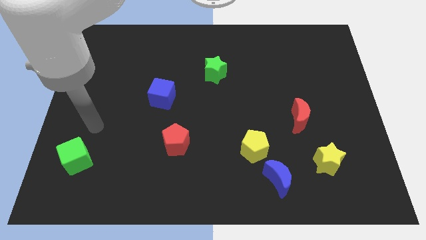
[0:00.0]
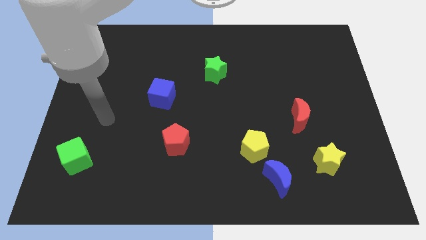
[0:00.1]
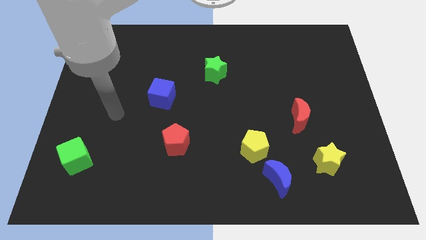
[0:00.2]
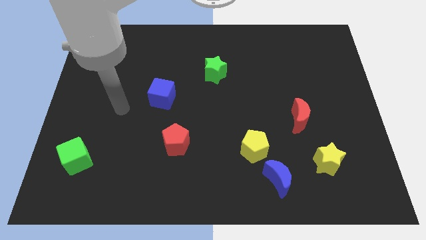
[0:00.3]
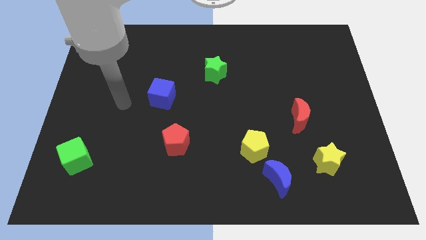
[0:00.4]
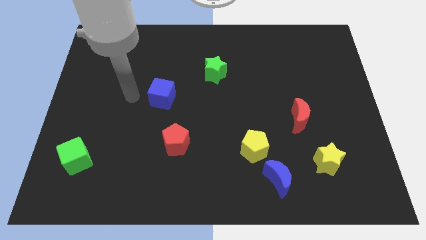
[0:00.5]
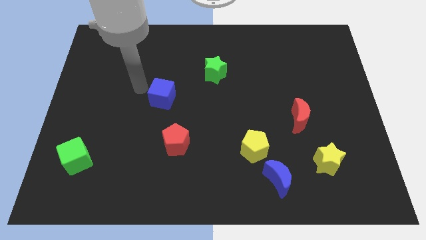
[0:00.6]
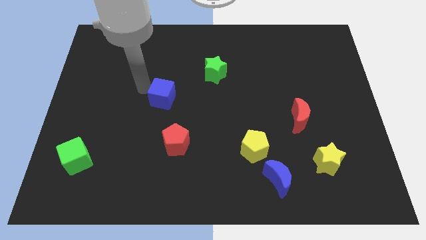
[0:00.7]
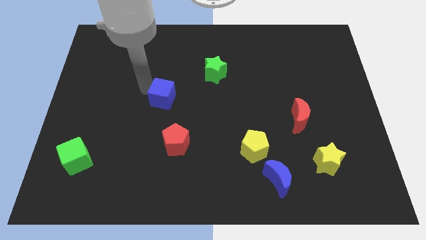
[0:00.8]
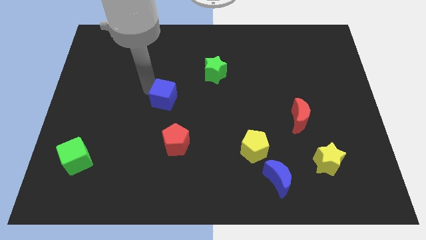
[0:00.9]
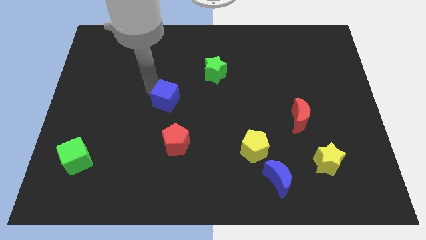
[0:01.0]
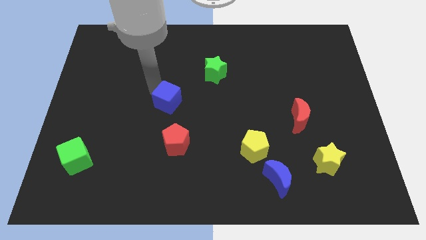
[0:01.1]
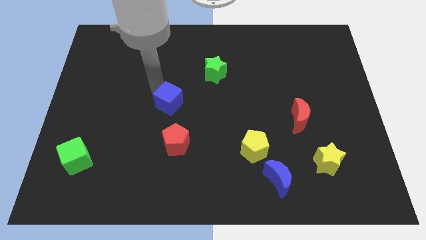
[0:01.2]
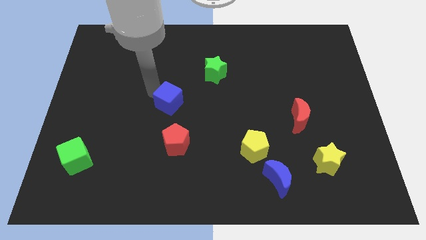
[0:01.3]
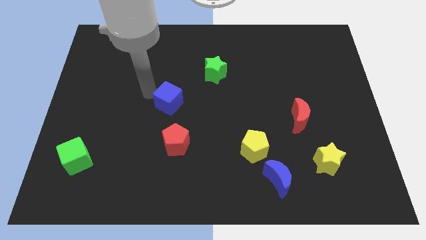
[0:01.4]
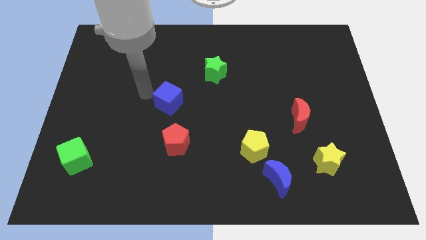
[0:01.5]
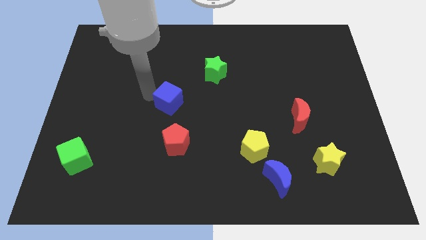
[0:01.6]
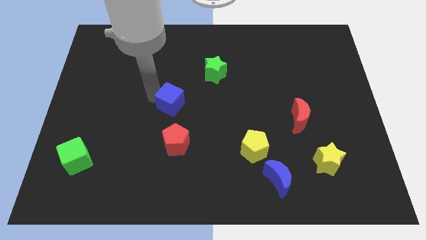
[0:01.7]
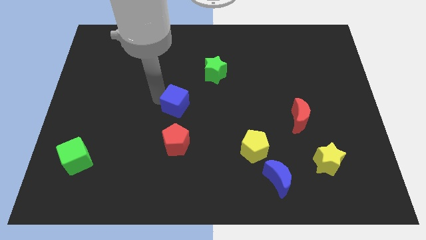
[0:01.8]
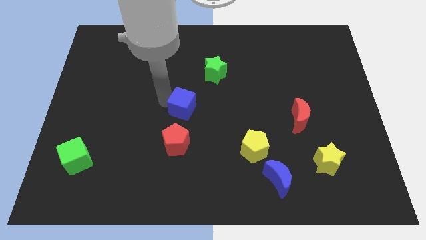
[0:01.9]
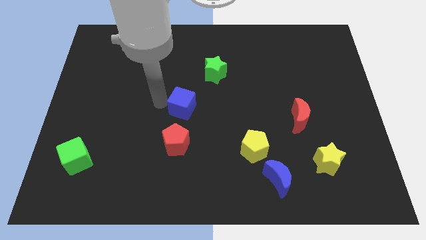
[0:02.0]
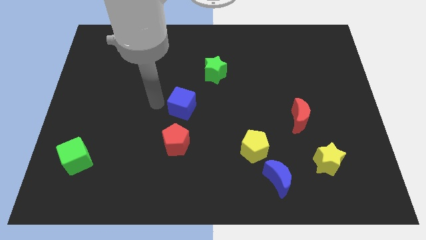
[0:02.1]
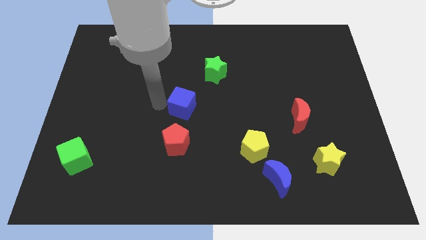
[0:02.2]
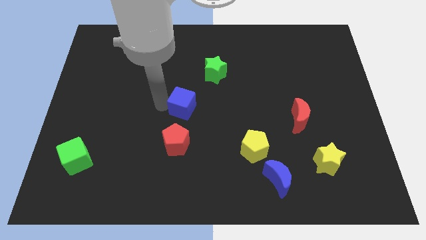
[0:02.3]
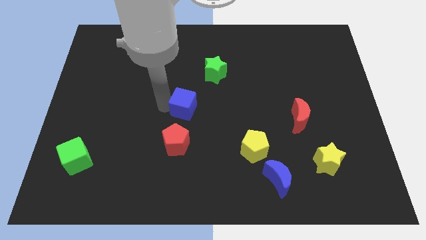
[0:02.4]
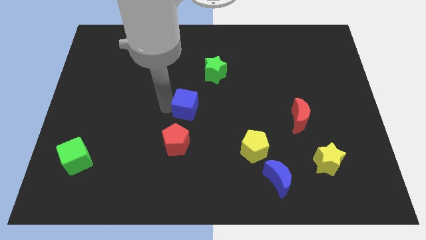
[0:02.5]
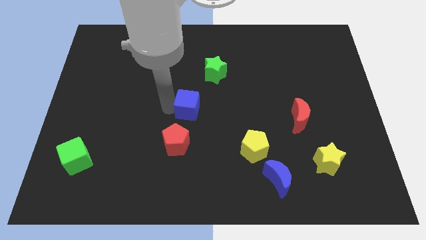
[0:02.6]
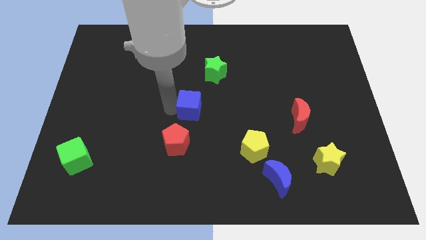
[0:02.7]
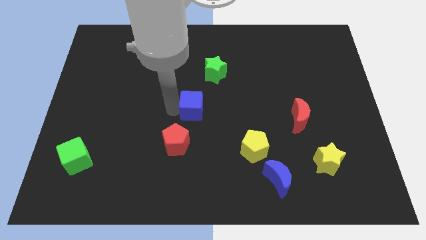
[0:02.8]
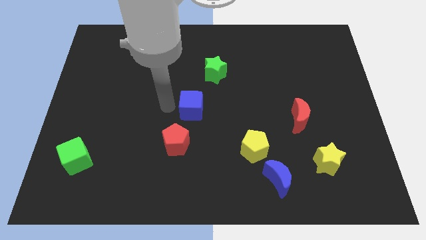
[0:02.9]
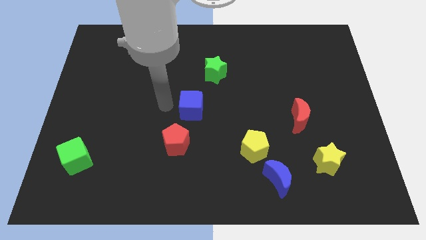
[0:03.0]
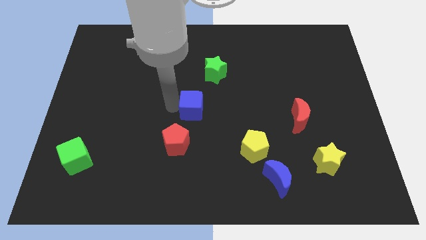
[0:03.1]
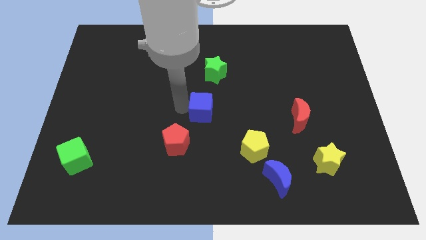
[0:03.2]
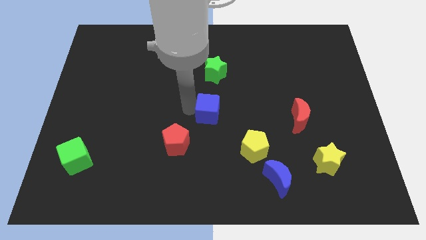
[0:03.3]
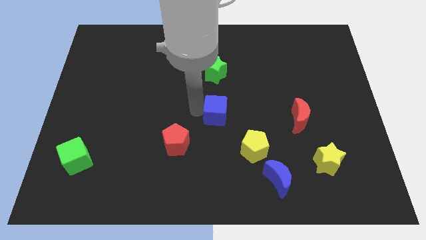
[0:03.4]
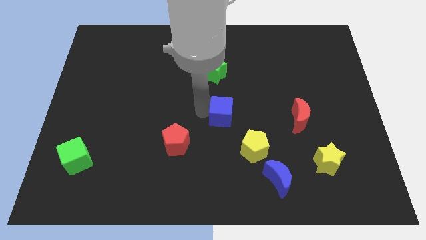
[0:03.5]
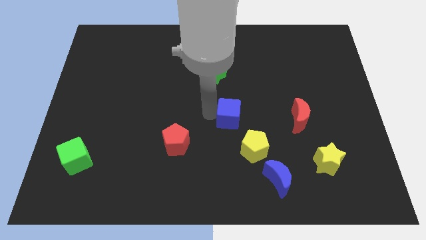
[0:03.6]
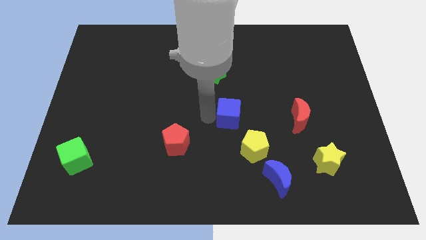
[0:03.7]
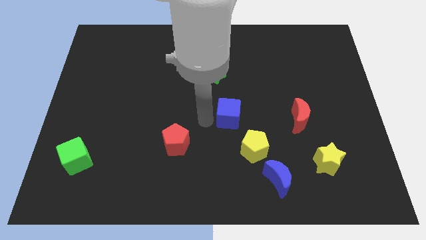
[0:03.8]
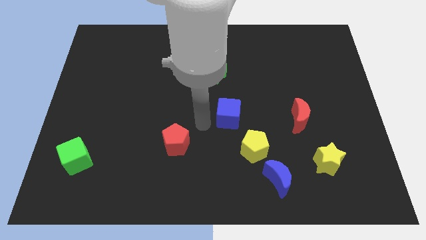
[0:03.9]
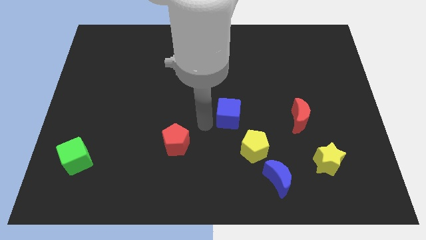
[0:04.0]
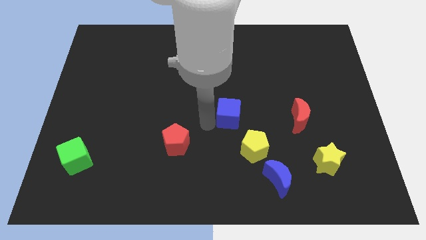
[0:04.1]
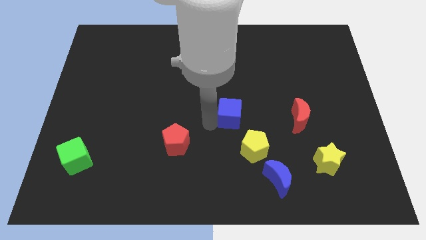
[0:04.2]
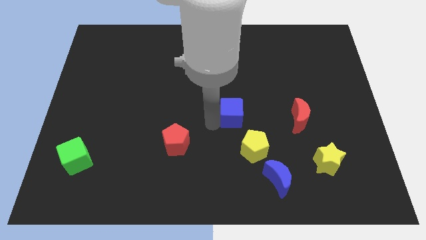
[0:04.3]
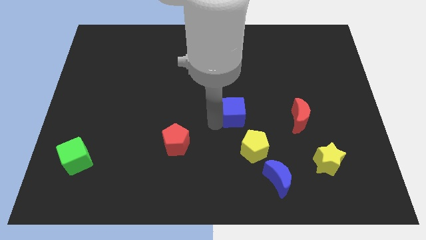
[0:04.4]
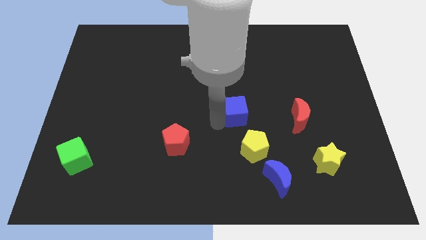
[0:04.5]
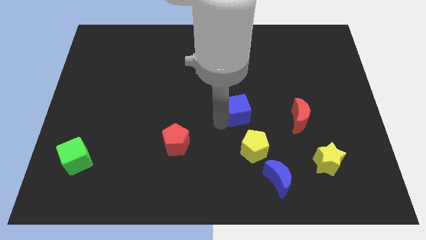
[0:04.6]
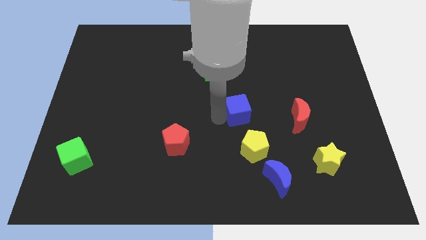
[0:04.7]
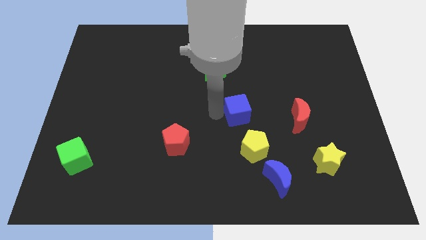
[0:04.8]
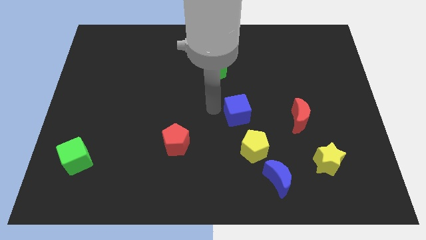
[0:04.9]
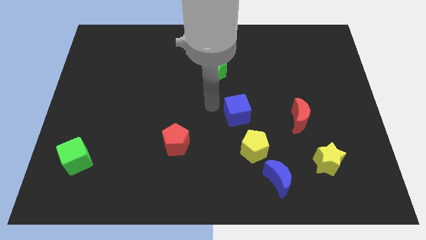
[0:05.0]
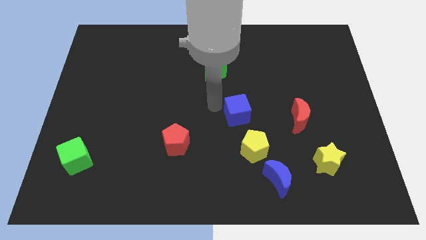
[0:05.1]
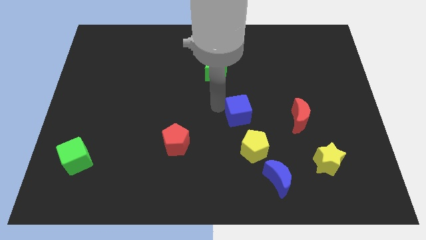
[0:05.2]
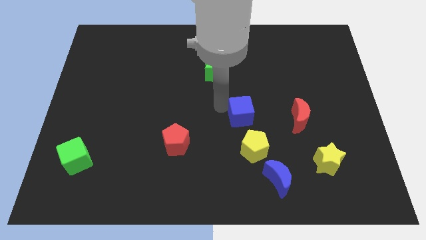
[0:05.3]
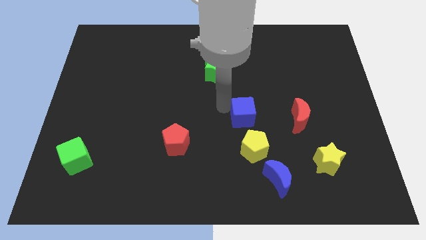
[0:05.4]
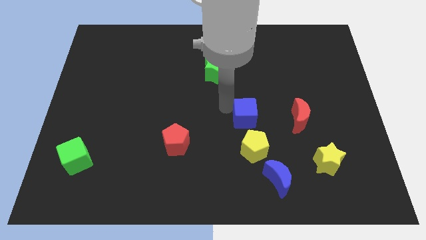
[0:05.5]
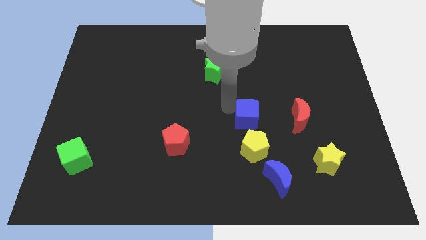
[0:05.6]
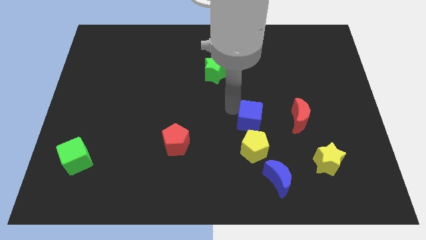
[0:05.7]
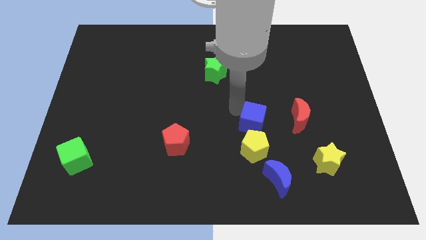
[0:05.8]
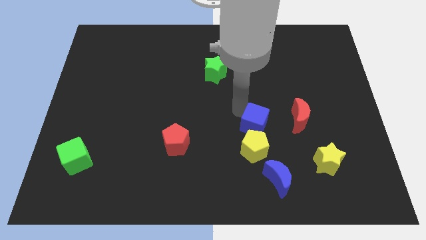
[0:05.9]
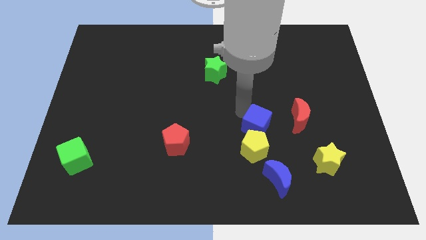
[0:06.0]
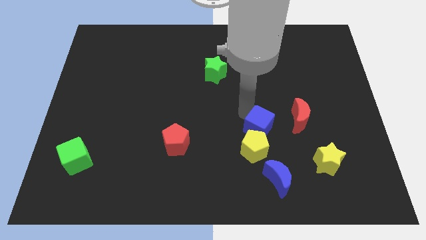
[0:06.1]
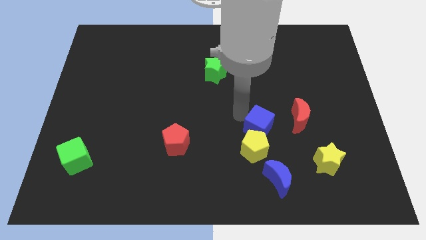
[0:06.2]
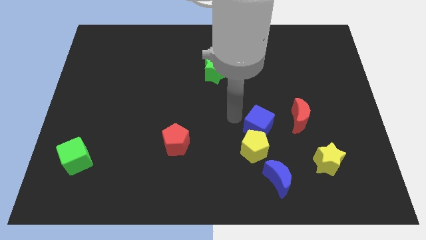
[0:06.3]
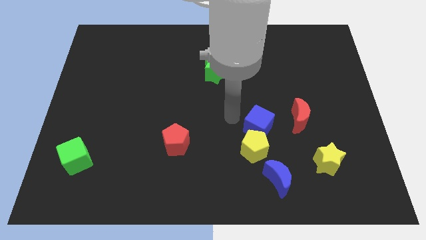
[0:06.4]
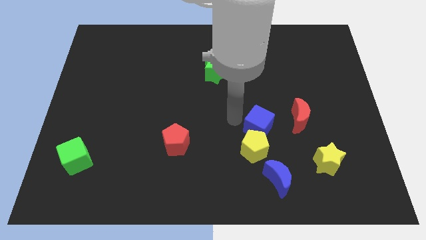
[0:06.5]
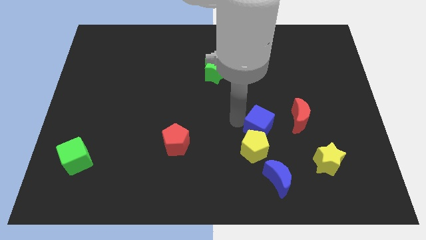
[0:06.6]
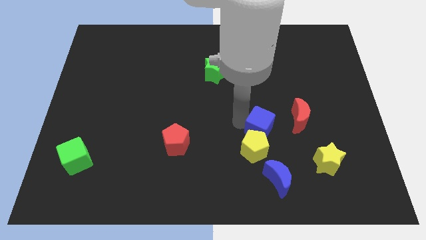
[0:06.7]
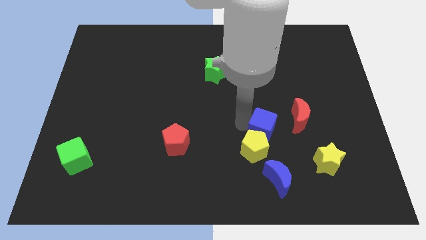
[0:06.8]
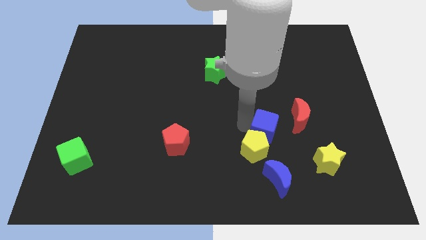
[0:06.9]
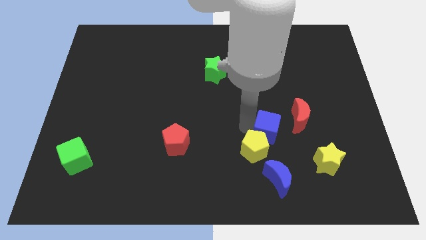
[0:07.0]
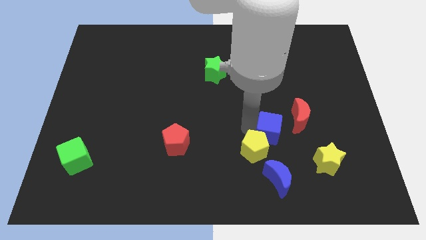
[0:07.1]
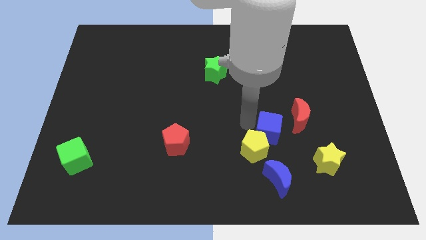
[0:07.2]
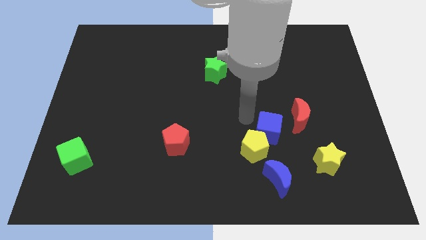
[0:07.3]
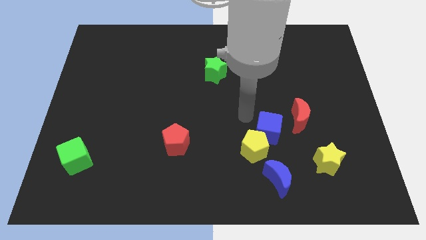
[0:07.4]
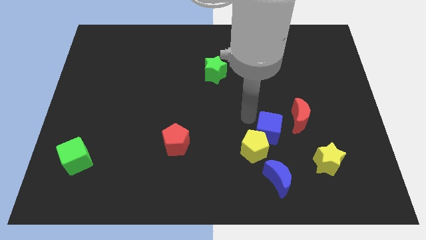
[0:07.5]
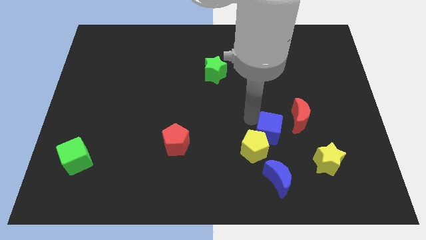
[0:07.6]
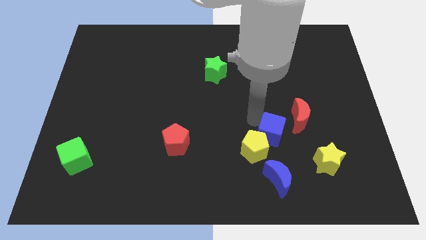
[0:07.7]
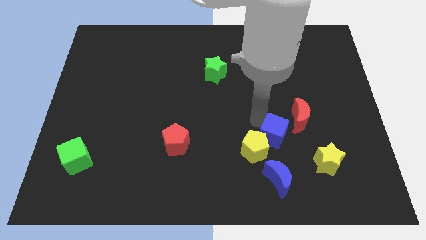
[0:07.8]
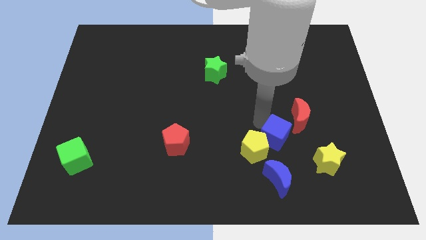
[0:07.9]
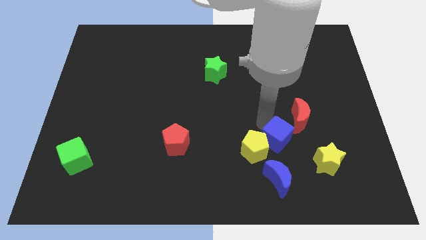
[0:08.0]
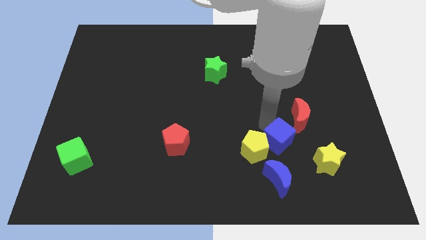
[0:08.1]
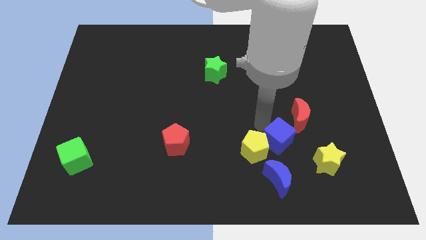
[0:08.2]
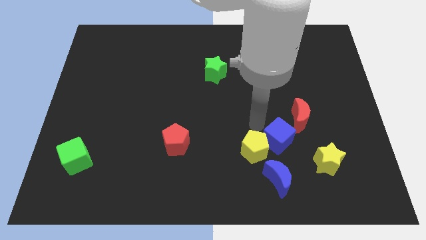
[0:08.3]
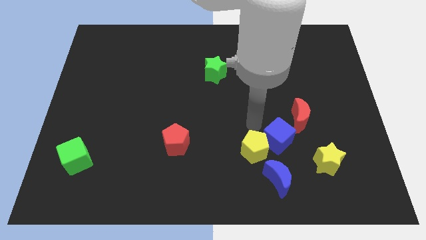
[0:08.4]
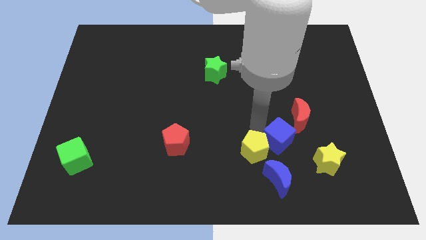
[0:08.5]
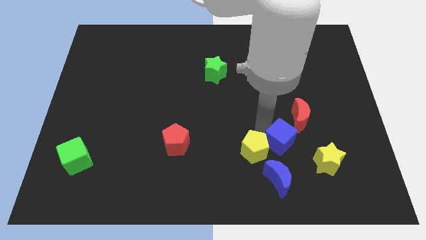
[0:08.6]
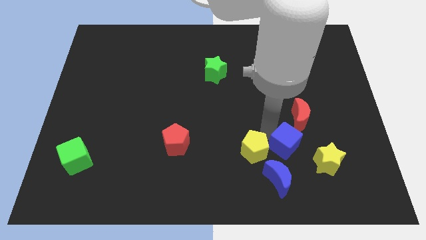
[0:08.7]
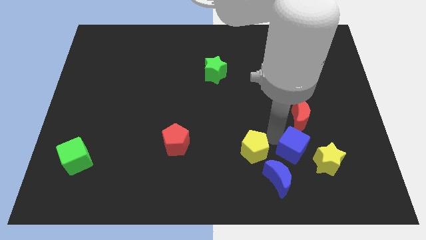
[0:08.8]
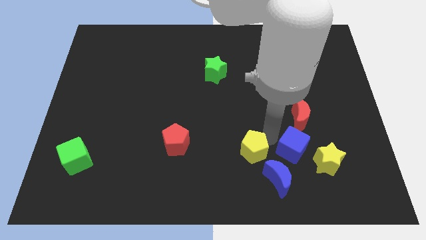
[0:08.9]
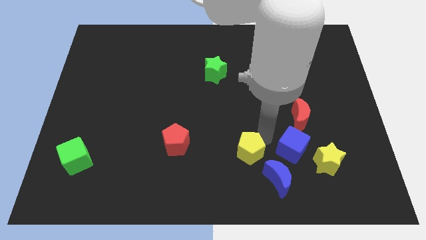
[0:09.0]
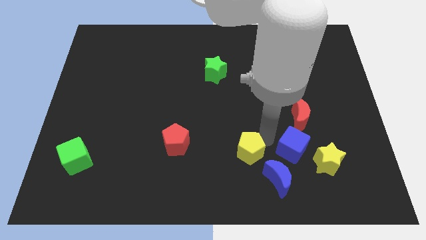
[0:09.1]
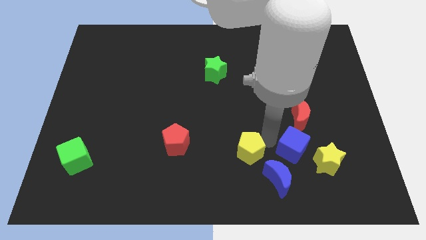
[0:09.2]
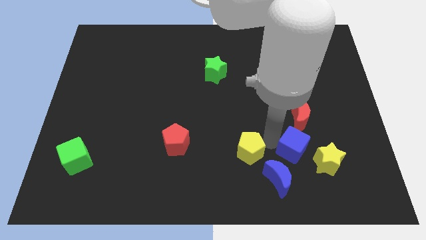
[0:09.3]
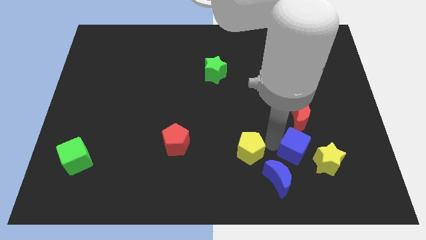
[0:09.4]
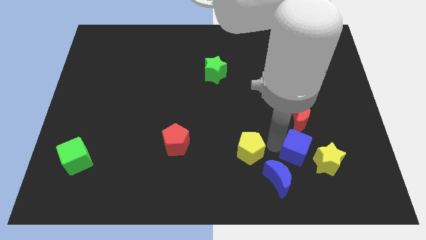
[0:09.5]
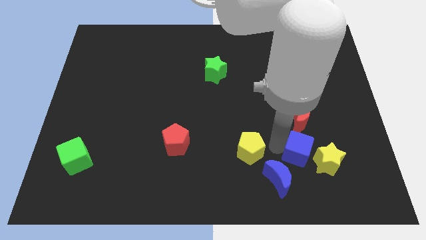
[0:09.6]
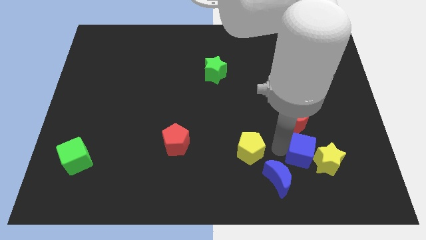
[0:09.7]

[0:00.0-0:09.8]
move the blue cube to the yellow star
